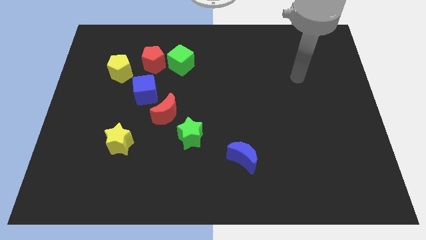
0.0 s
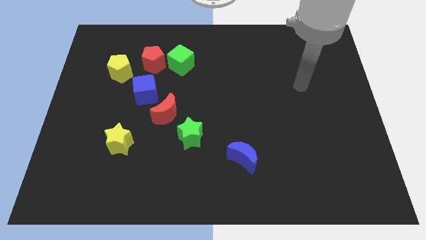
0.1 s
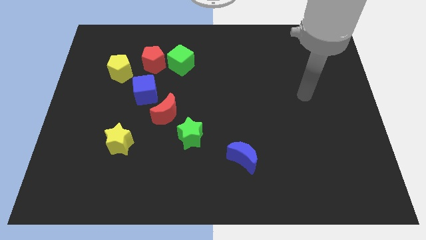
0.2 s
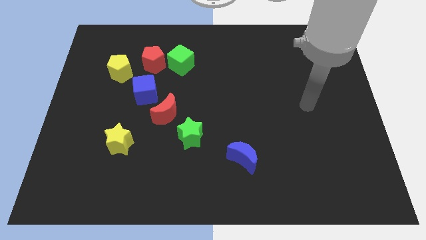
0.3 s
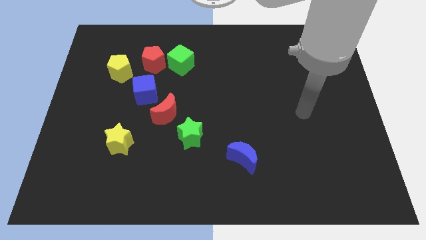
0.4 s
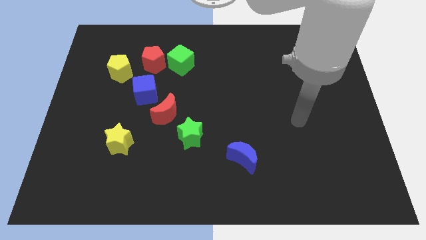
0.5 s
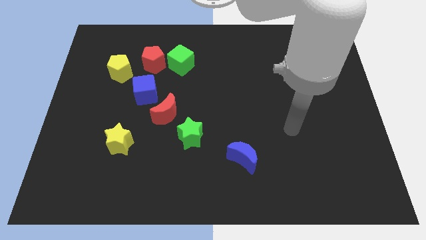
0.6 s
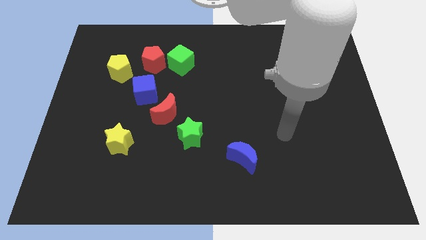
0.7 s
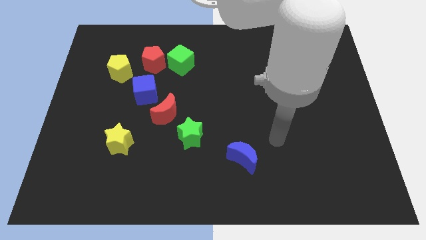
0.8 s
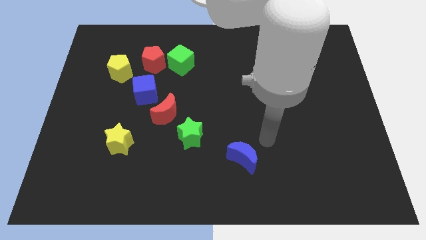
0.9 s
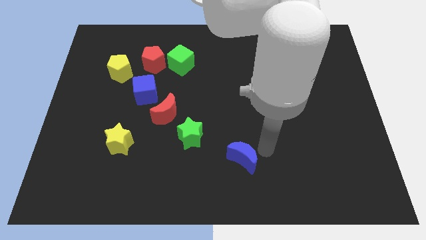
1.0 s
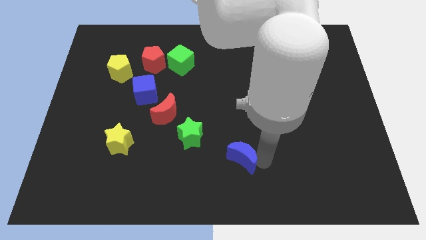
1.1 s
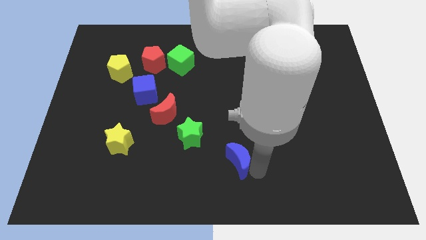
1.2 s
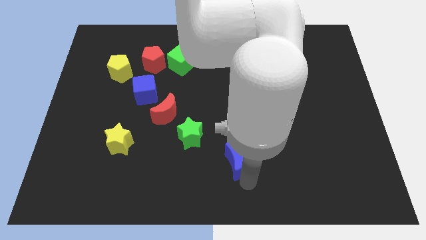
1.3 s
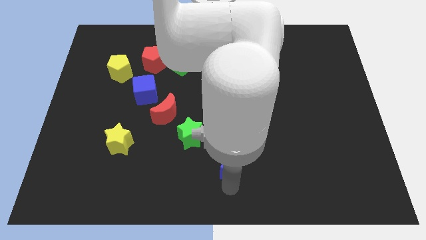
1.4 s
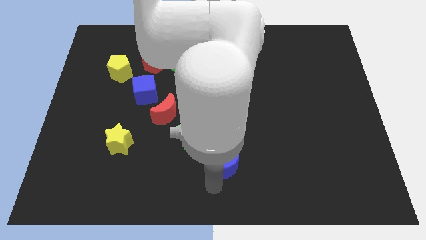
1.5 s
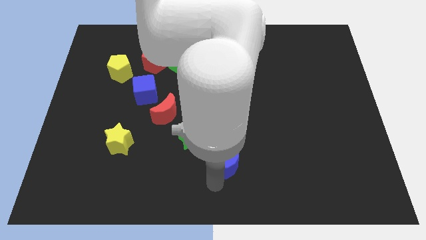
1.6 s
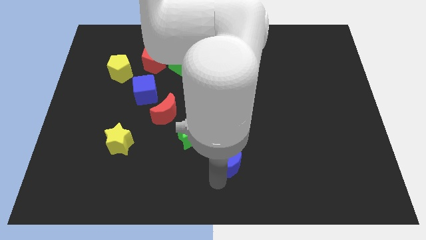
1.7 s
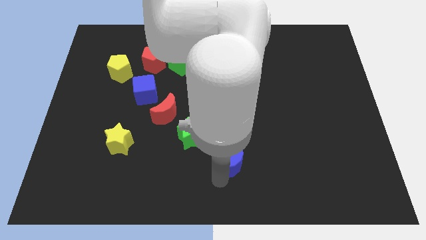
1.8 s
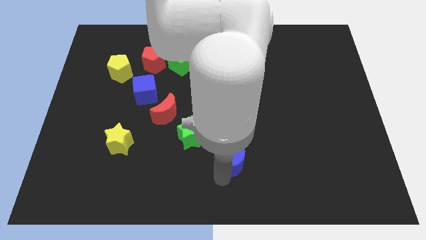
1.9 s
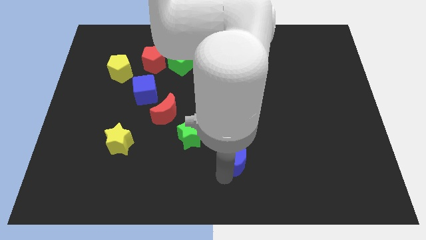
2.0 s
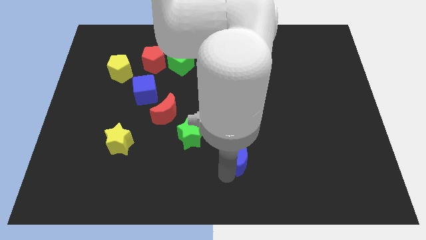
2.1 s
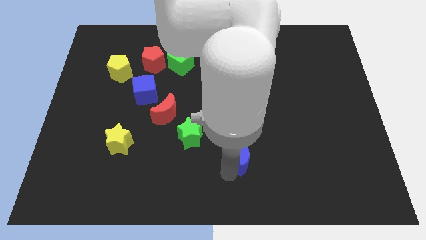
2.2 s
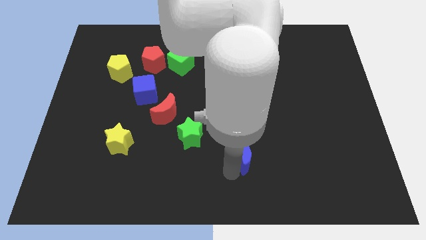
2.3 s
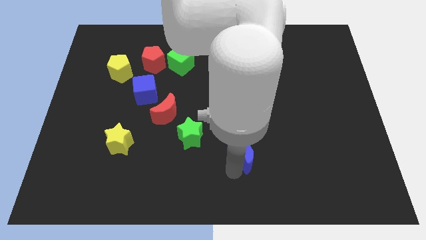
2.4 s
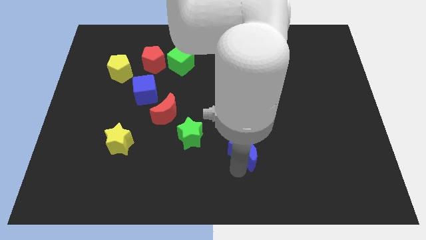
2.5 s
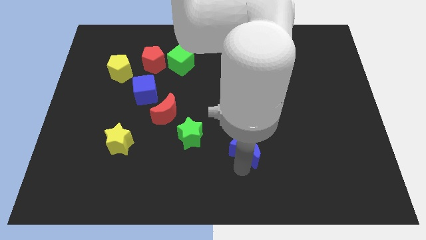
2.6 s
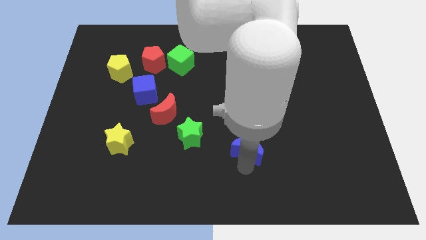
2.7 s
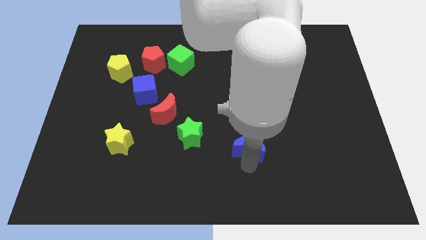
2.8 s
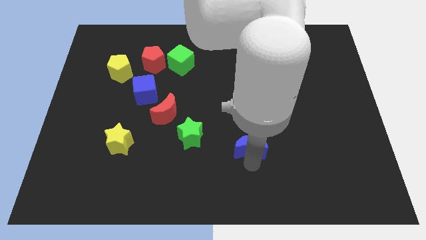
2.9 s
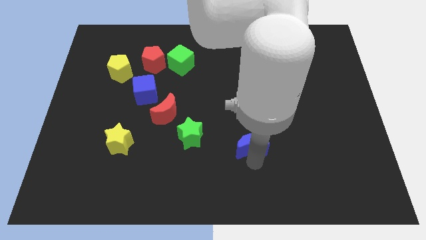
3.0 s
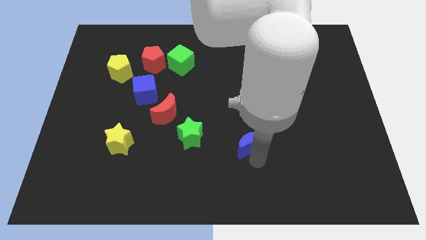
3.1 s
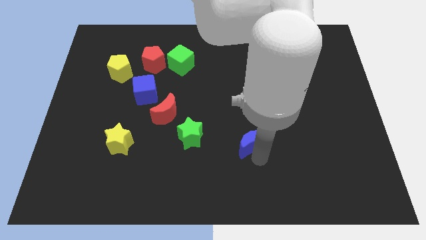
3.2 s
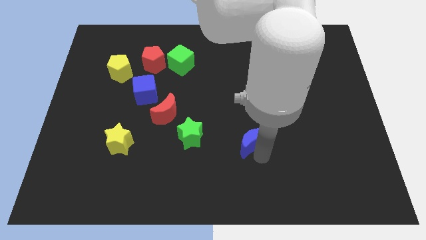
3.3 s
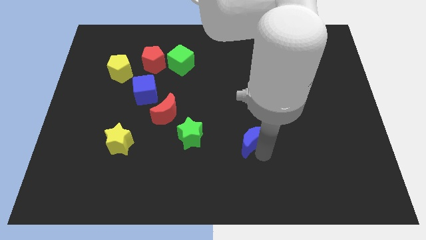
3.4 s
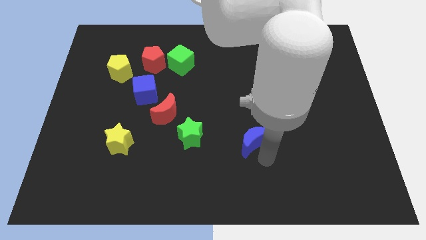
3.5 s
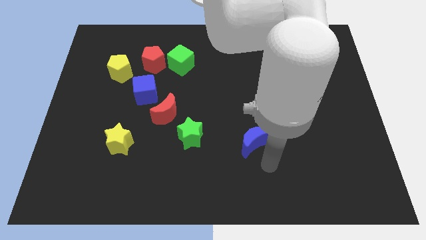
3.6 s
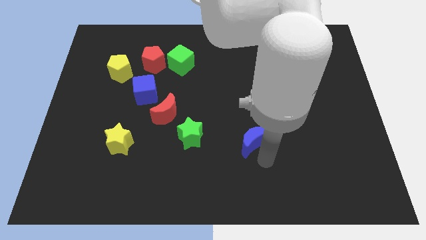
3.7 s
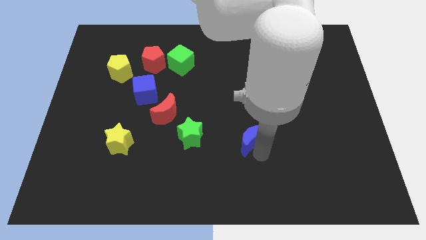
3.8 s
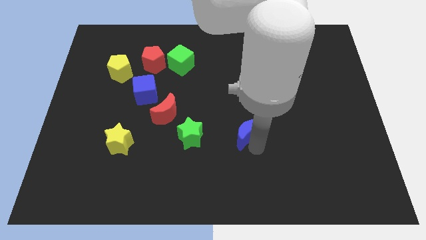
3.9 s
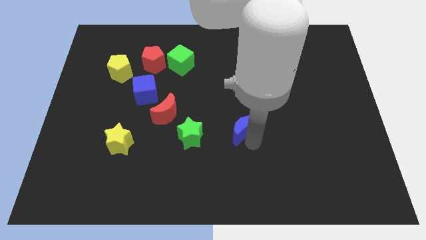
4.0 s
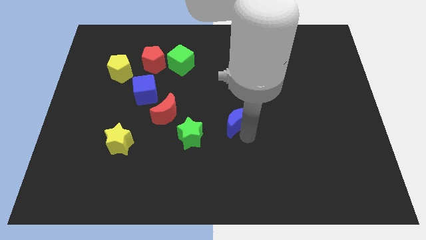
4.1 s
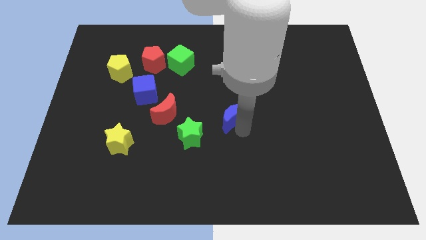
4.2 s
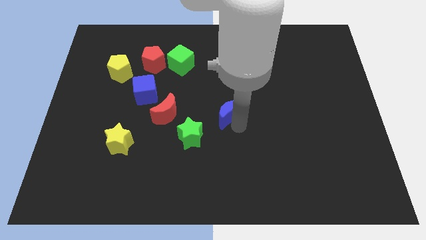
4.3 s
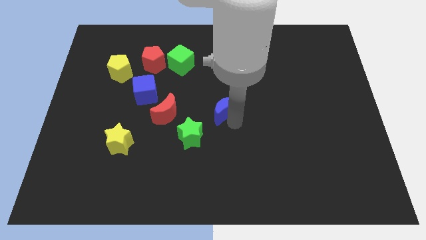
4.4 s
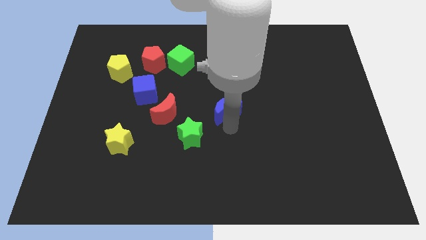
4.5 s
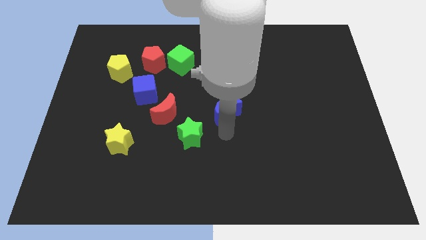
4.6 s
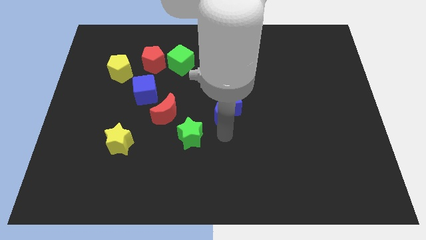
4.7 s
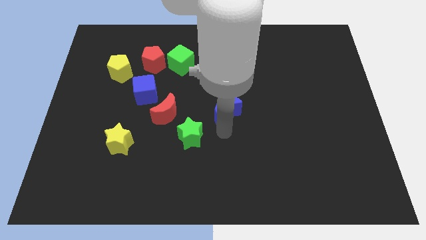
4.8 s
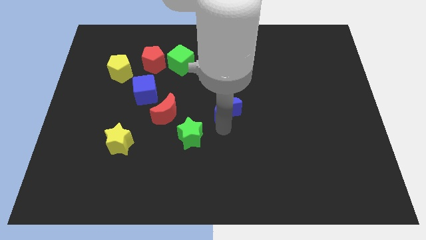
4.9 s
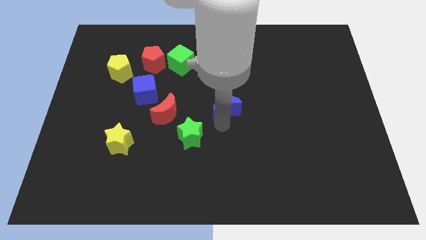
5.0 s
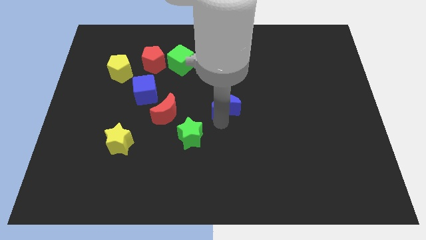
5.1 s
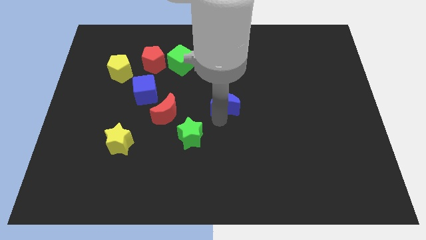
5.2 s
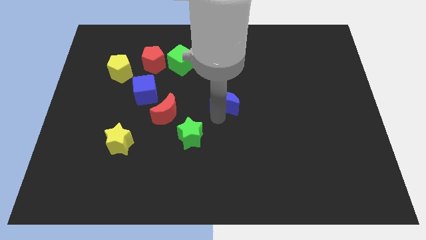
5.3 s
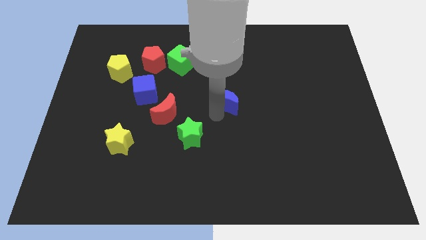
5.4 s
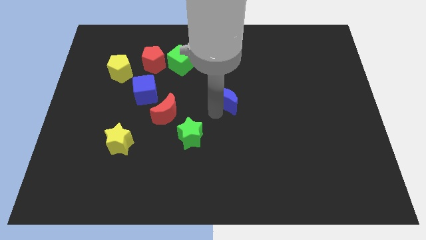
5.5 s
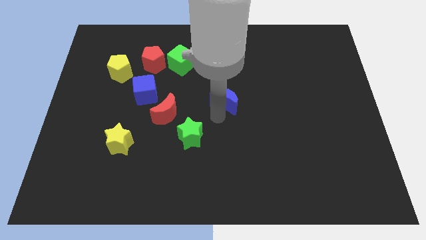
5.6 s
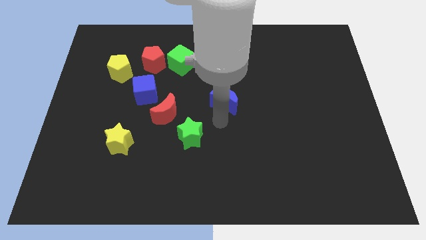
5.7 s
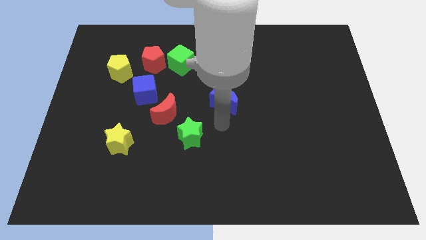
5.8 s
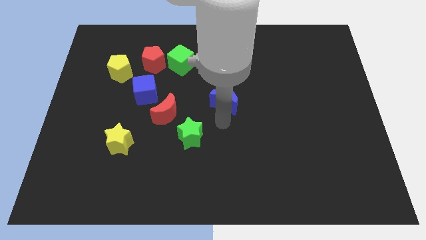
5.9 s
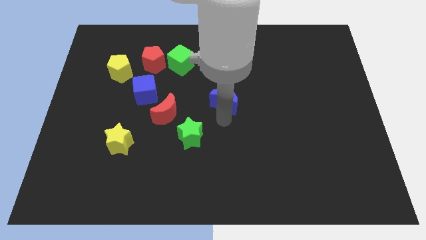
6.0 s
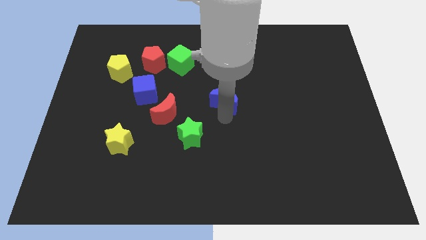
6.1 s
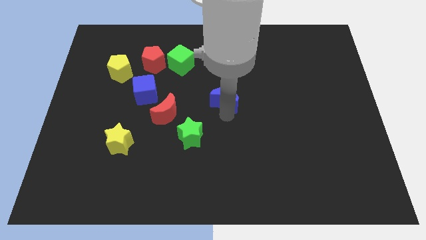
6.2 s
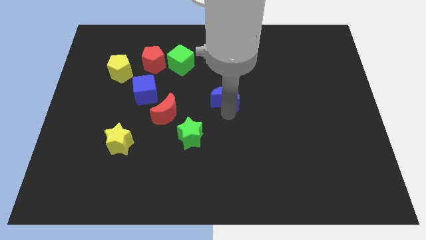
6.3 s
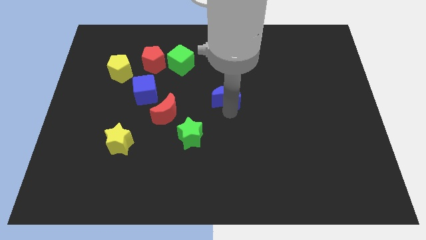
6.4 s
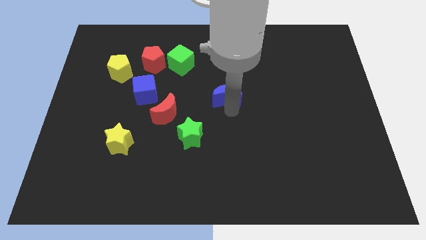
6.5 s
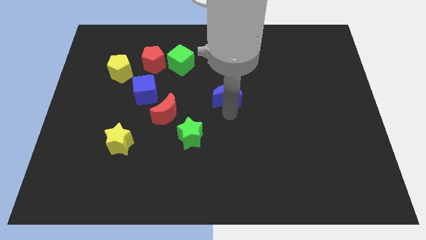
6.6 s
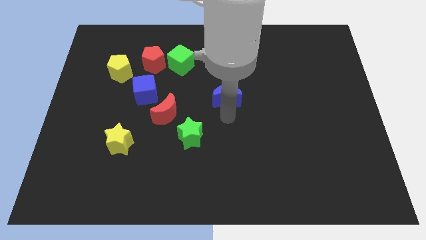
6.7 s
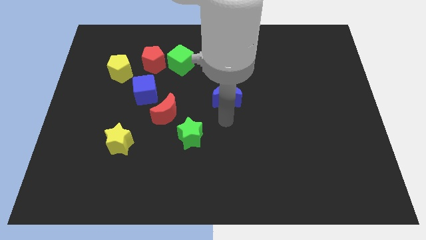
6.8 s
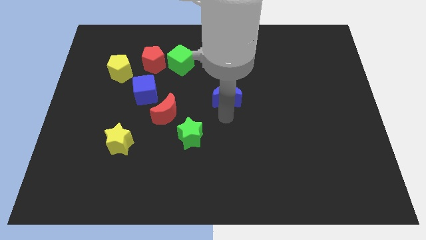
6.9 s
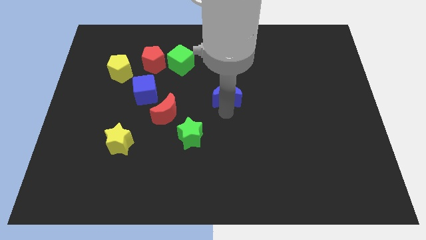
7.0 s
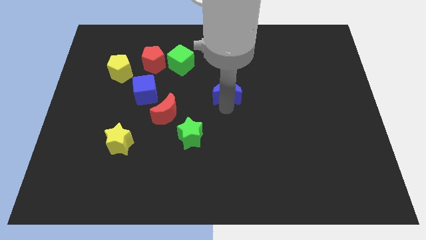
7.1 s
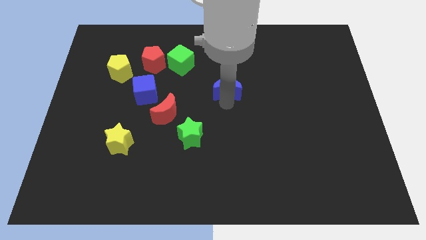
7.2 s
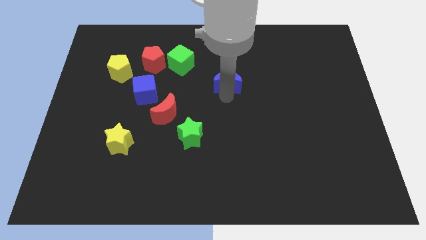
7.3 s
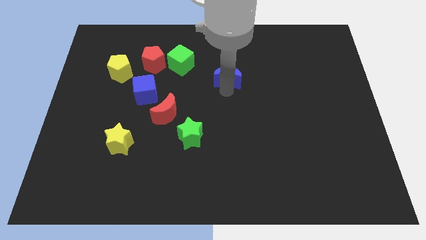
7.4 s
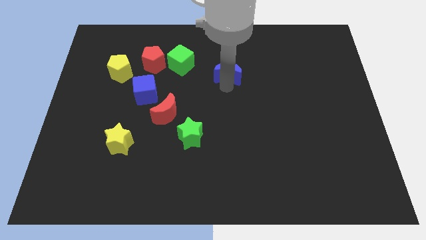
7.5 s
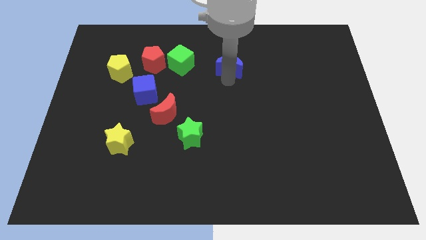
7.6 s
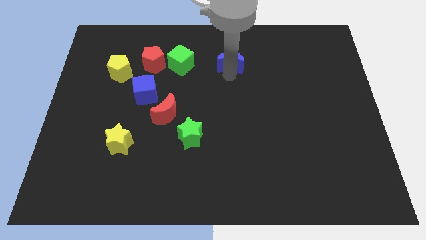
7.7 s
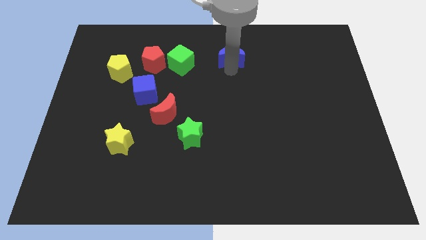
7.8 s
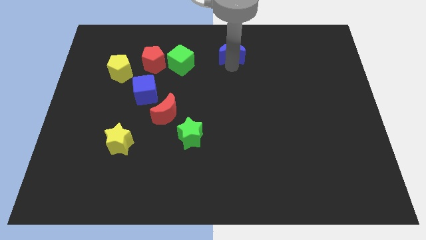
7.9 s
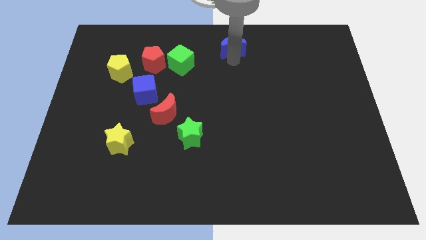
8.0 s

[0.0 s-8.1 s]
slide the blue moon to the top side

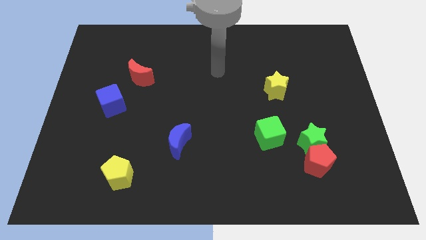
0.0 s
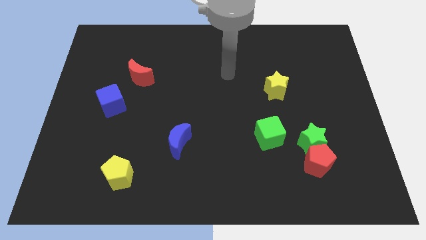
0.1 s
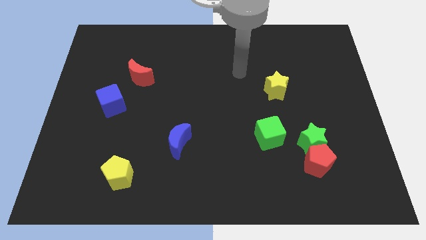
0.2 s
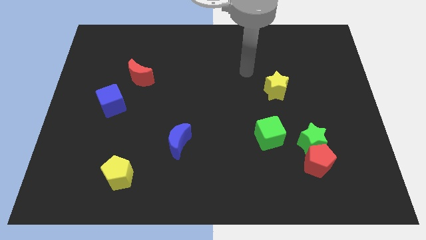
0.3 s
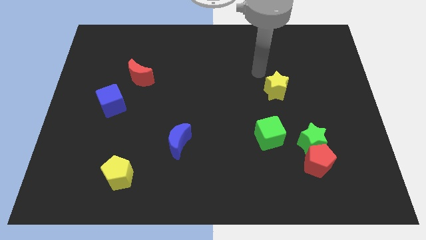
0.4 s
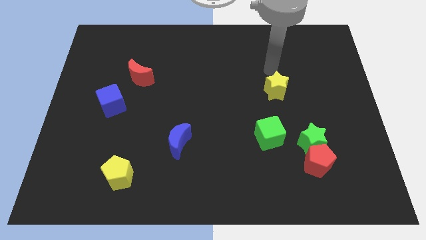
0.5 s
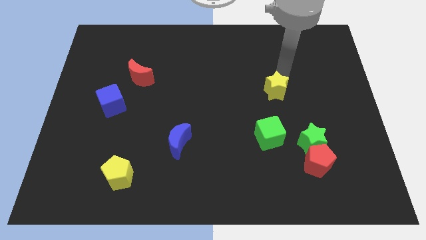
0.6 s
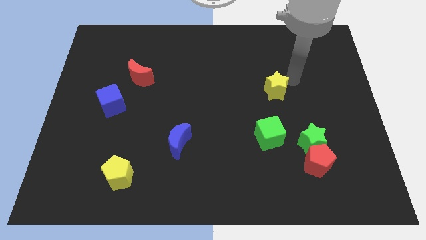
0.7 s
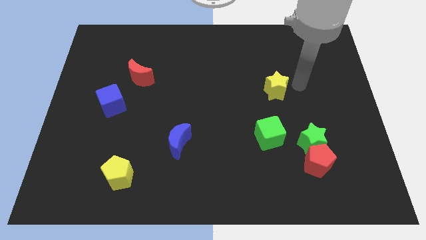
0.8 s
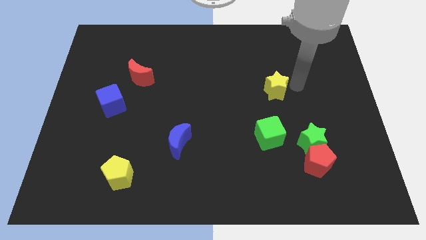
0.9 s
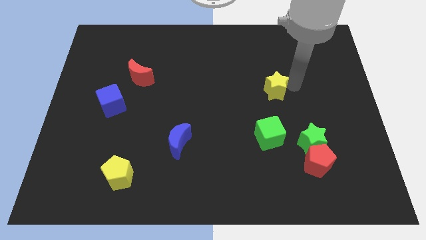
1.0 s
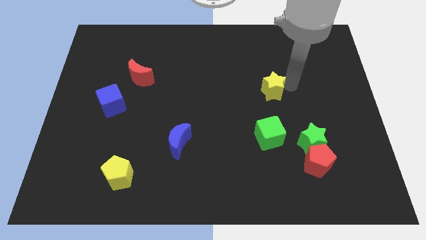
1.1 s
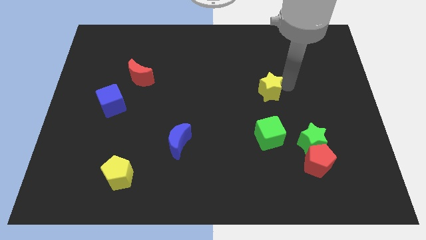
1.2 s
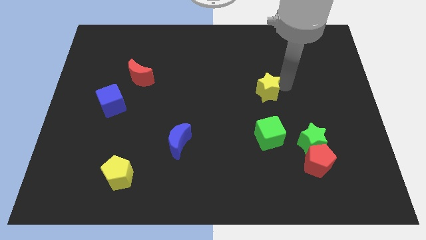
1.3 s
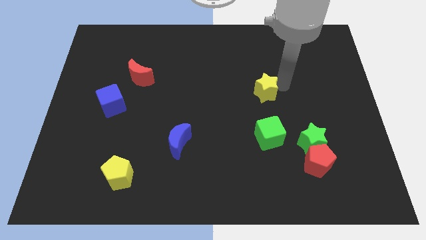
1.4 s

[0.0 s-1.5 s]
move the yellow star to the middle
